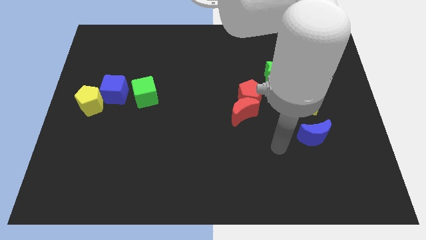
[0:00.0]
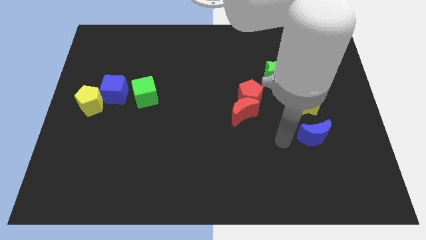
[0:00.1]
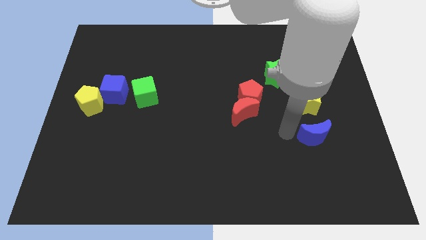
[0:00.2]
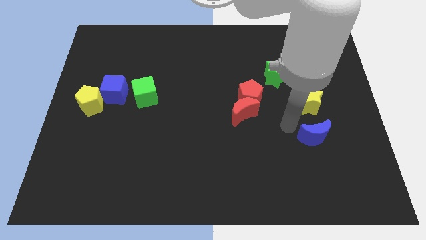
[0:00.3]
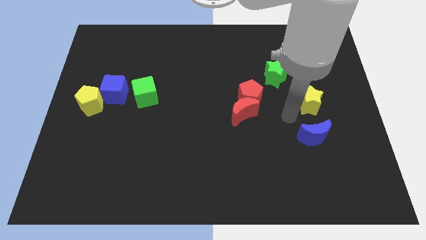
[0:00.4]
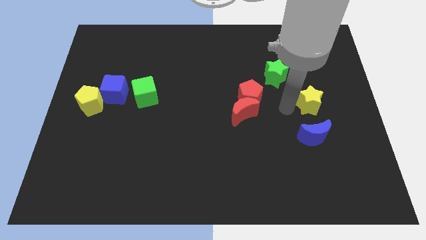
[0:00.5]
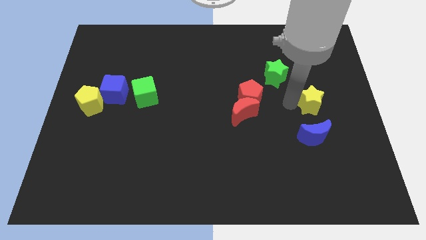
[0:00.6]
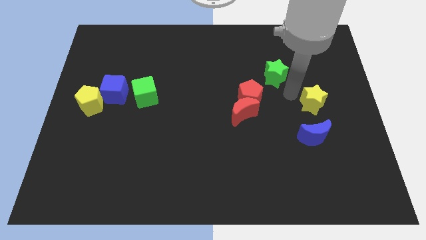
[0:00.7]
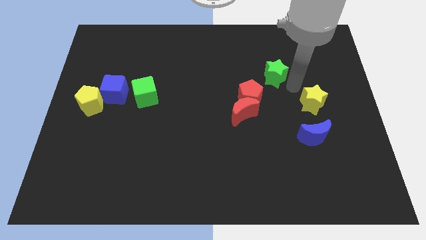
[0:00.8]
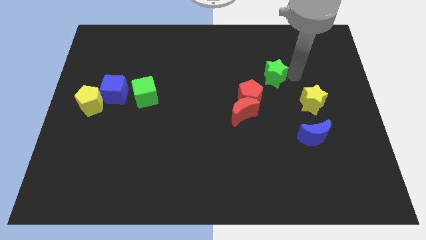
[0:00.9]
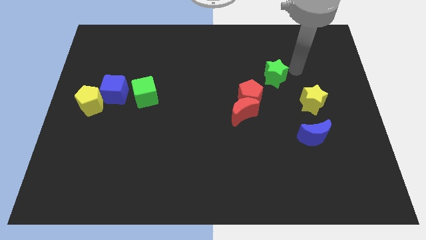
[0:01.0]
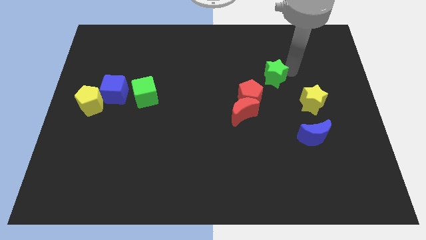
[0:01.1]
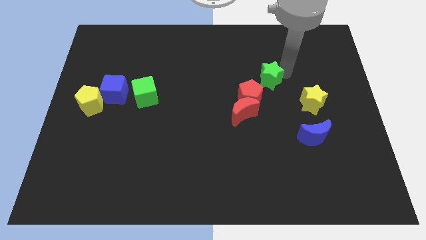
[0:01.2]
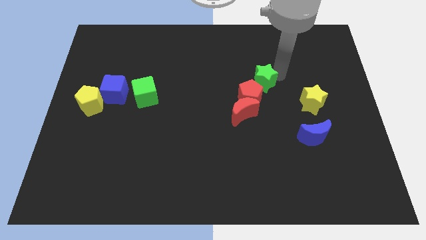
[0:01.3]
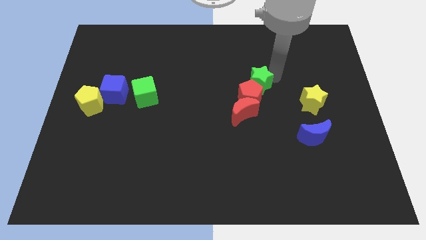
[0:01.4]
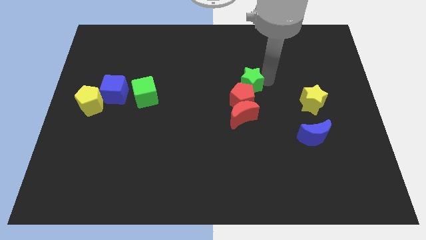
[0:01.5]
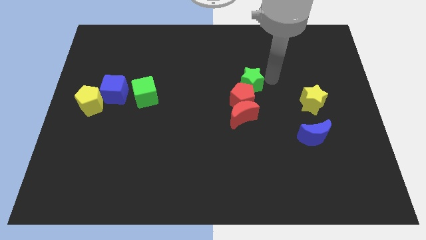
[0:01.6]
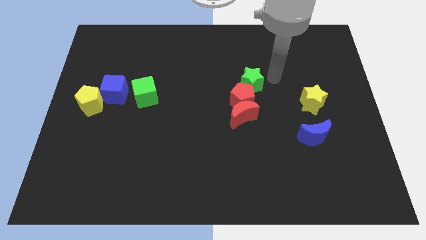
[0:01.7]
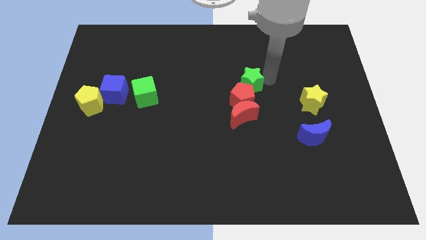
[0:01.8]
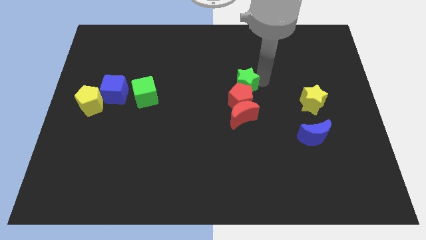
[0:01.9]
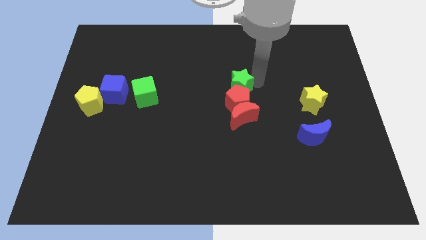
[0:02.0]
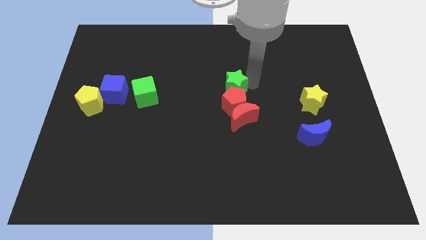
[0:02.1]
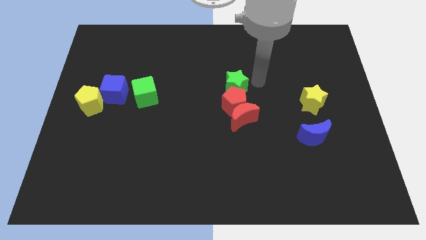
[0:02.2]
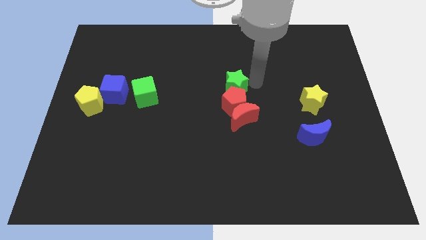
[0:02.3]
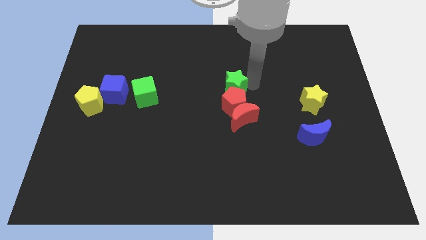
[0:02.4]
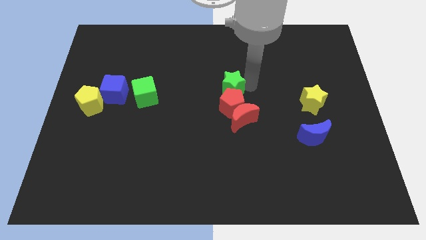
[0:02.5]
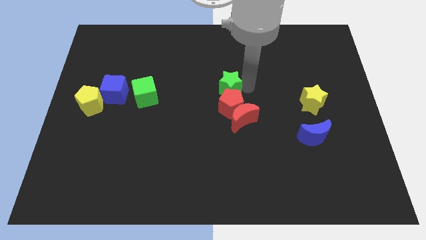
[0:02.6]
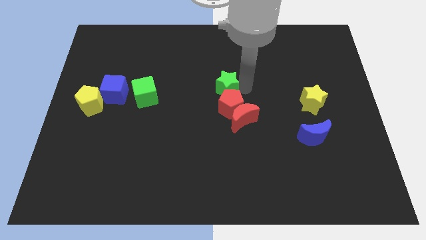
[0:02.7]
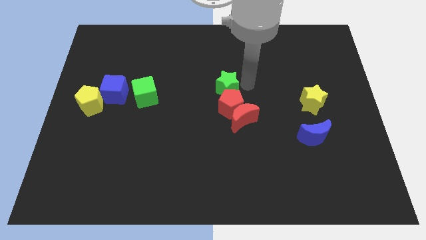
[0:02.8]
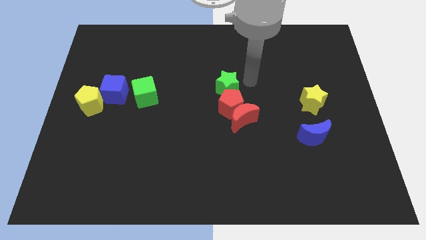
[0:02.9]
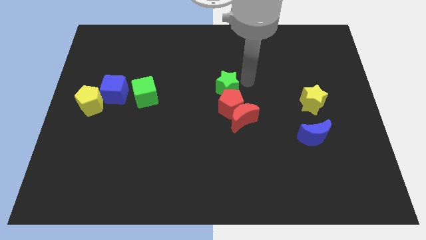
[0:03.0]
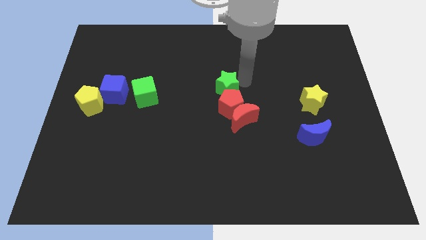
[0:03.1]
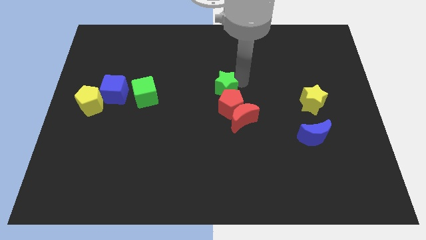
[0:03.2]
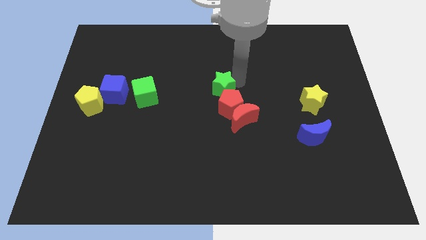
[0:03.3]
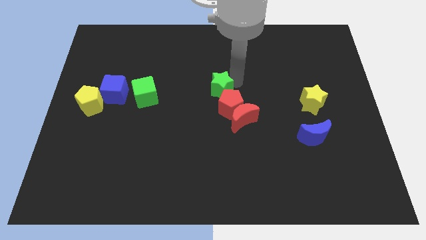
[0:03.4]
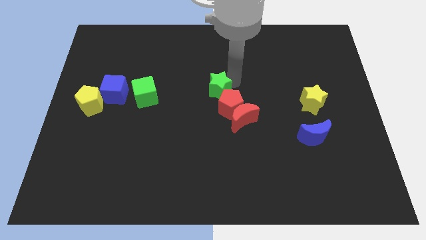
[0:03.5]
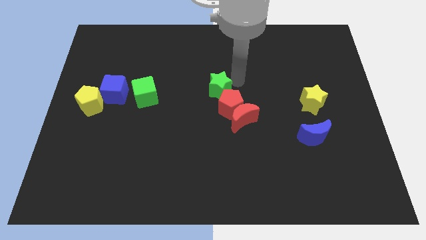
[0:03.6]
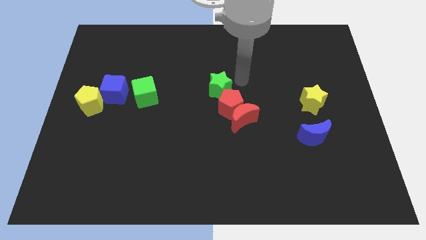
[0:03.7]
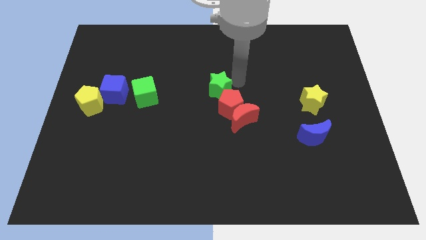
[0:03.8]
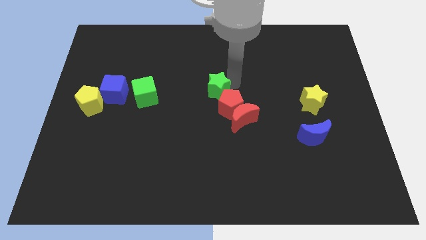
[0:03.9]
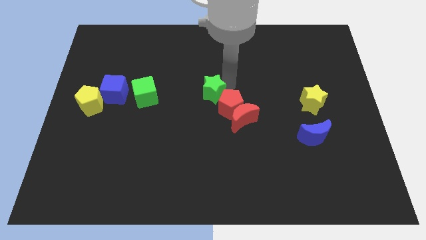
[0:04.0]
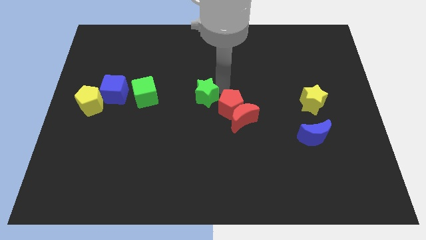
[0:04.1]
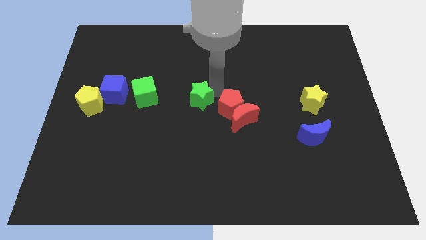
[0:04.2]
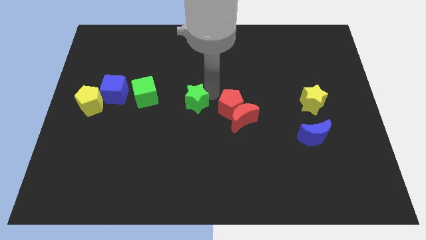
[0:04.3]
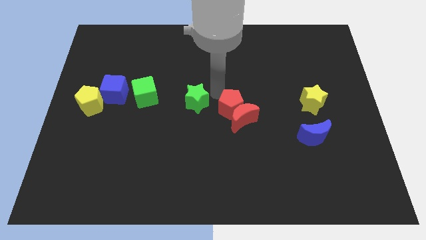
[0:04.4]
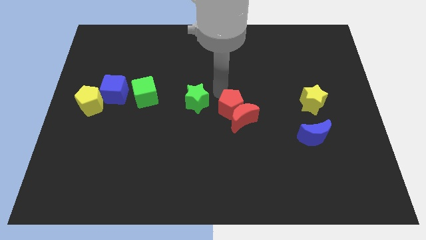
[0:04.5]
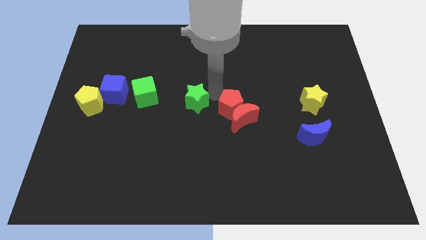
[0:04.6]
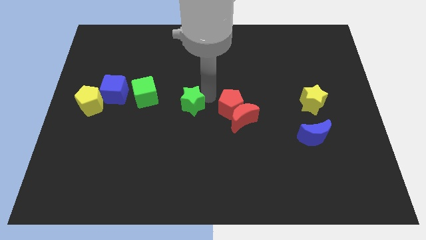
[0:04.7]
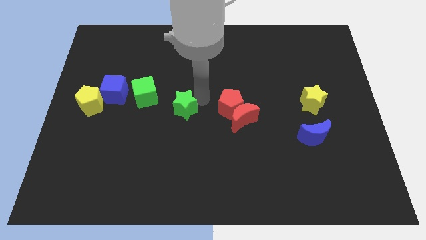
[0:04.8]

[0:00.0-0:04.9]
move the green star to the bottom right side of the green cube

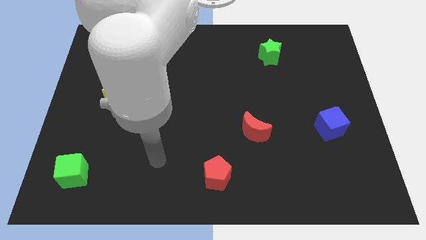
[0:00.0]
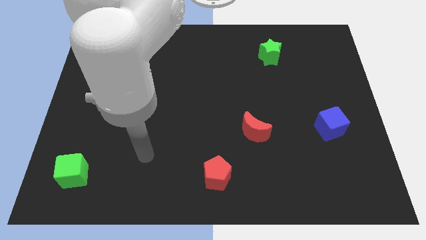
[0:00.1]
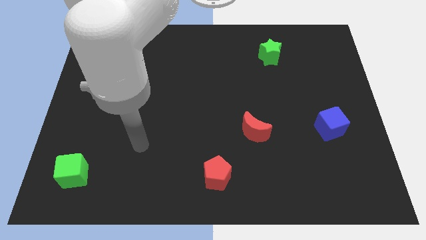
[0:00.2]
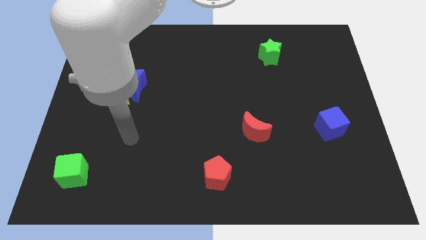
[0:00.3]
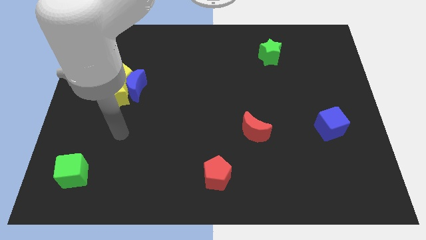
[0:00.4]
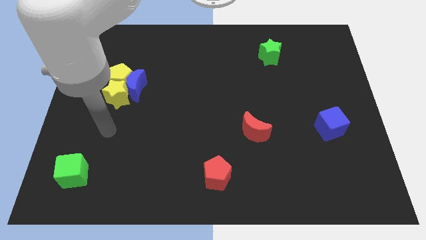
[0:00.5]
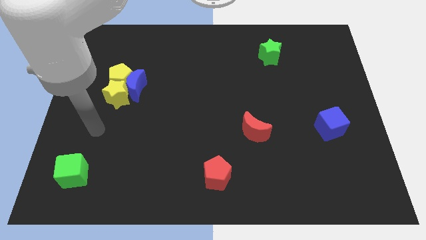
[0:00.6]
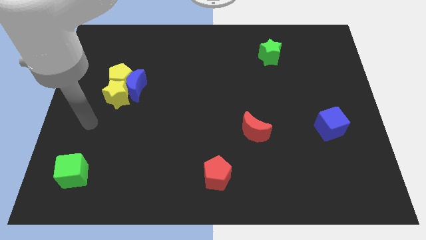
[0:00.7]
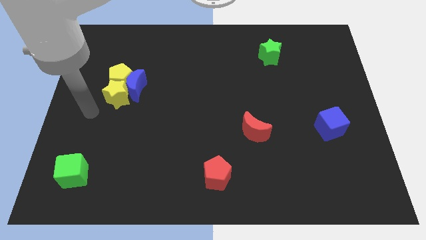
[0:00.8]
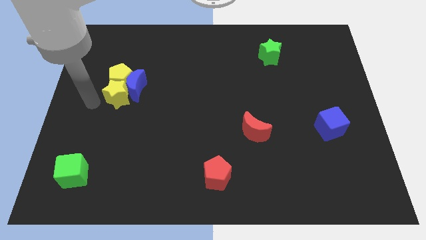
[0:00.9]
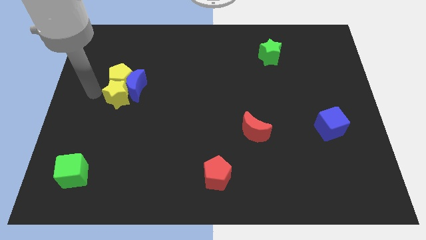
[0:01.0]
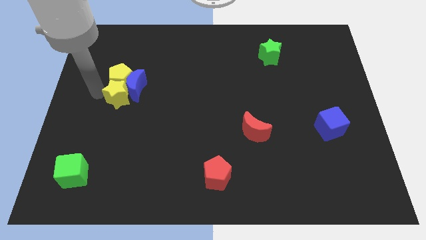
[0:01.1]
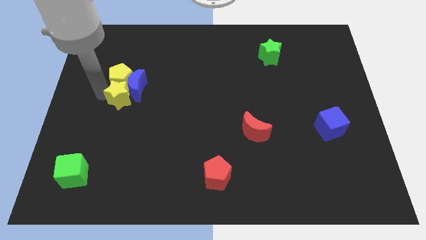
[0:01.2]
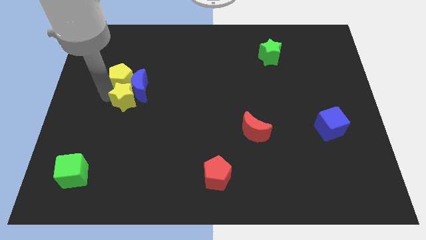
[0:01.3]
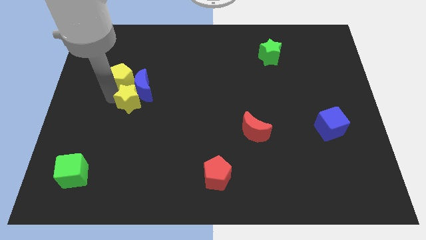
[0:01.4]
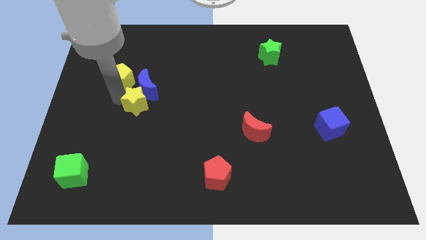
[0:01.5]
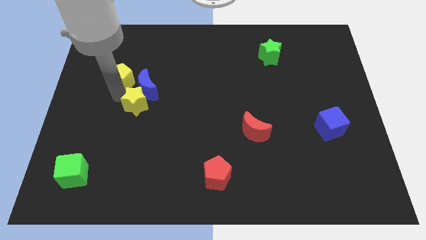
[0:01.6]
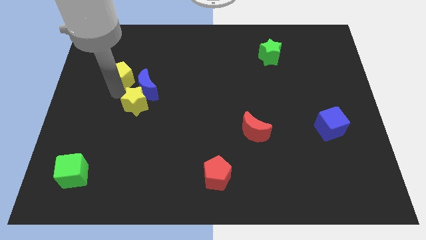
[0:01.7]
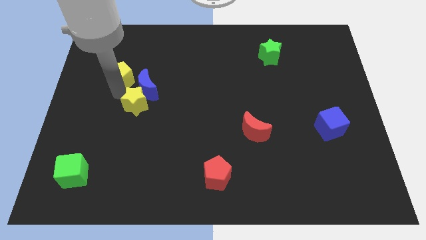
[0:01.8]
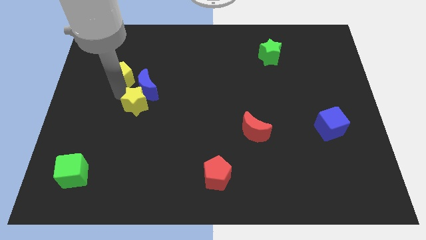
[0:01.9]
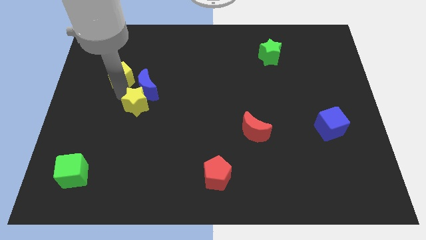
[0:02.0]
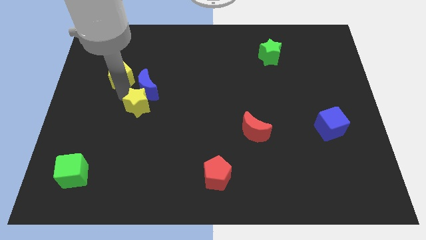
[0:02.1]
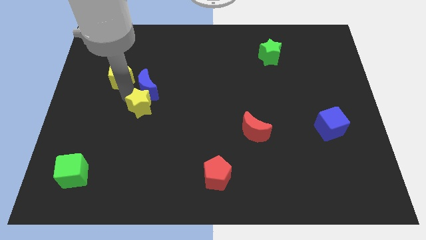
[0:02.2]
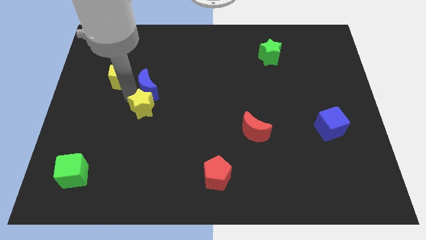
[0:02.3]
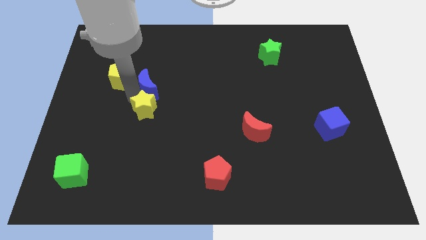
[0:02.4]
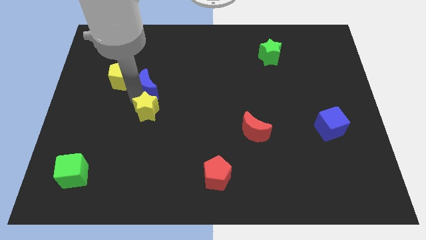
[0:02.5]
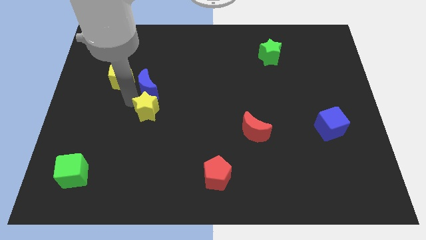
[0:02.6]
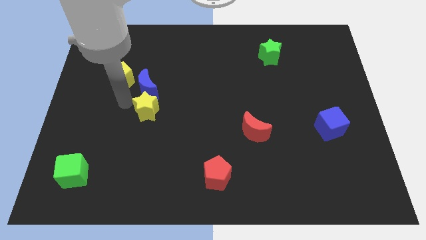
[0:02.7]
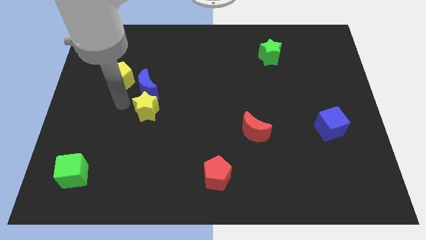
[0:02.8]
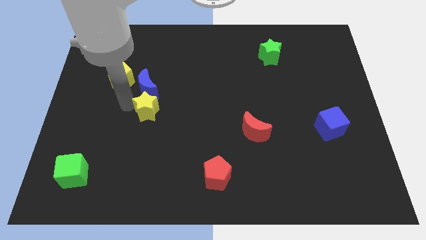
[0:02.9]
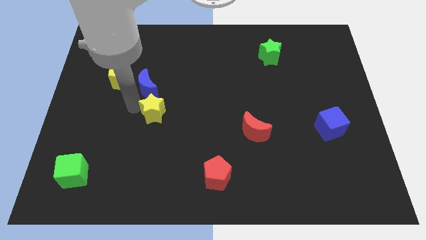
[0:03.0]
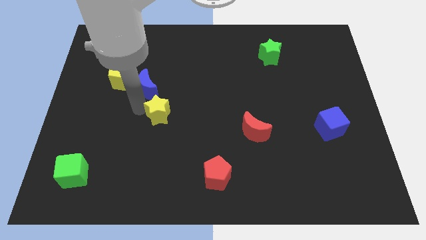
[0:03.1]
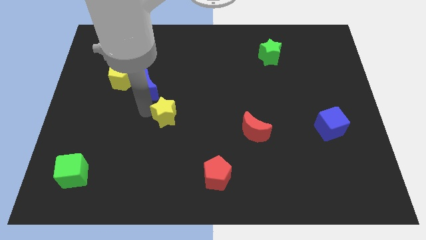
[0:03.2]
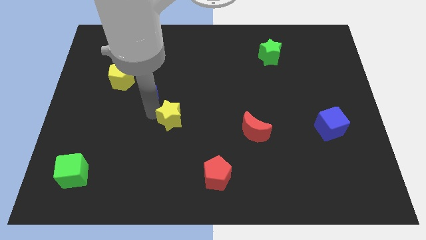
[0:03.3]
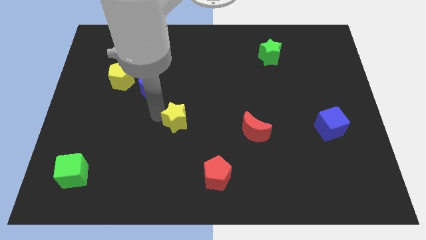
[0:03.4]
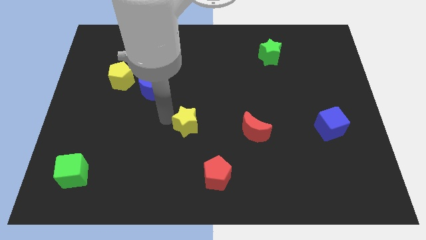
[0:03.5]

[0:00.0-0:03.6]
put the yellow star to the left side of the red moon
